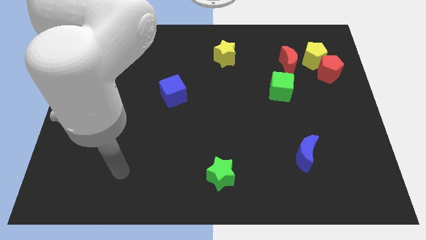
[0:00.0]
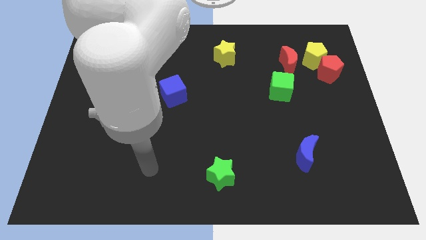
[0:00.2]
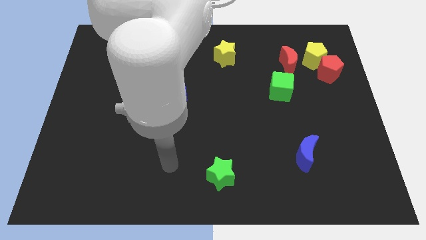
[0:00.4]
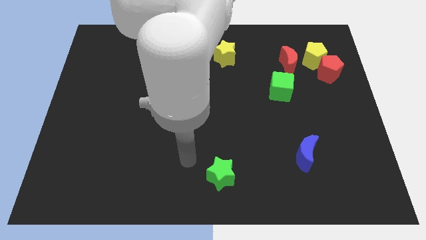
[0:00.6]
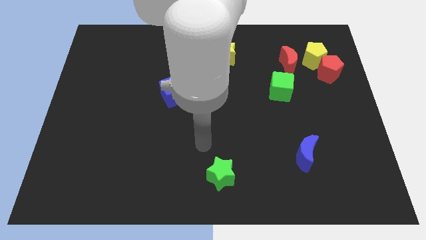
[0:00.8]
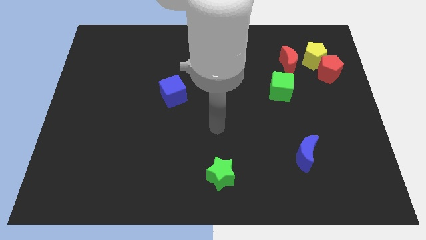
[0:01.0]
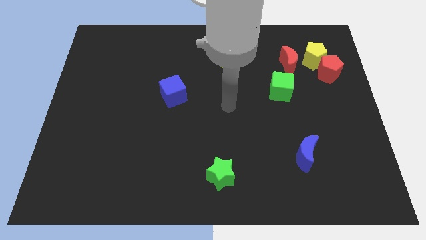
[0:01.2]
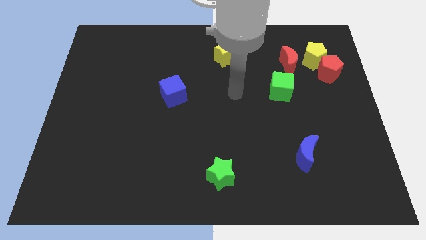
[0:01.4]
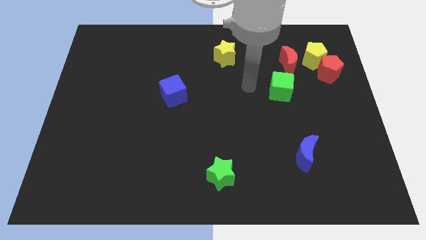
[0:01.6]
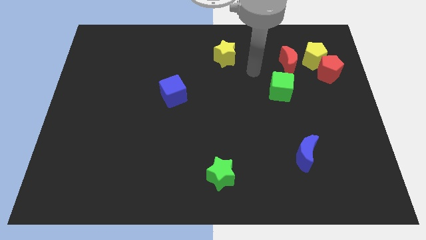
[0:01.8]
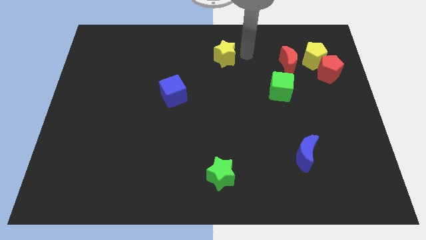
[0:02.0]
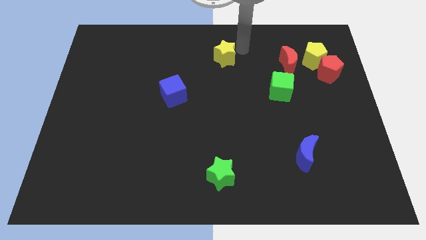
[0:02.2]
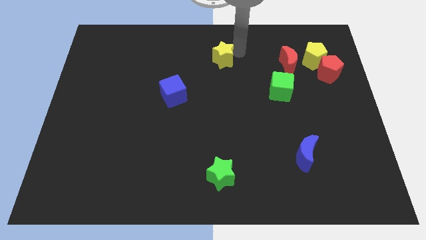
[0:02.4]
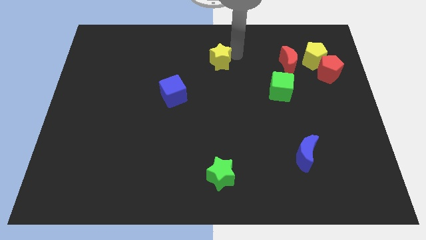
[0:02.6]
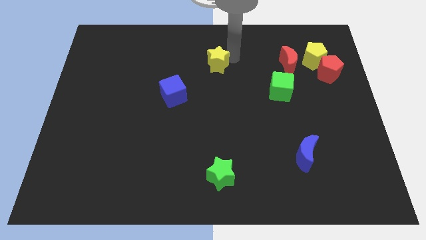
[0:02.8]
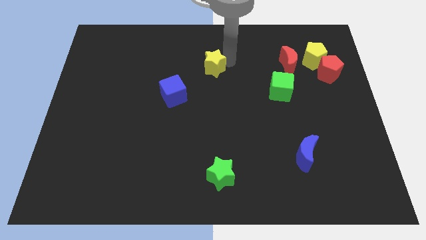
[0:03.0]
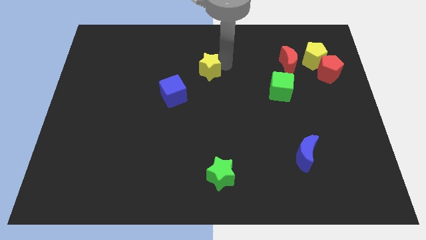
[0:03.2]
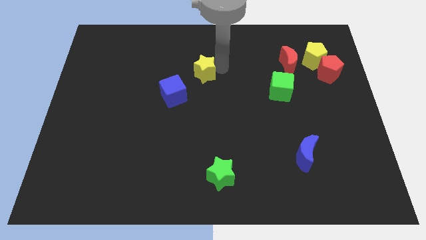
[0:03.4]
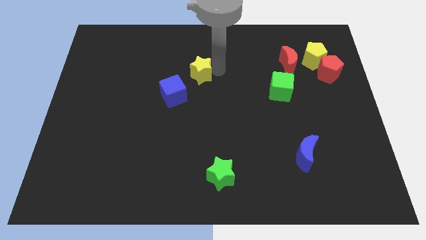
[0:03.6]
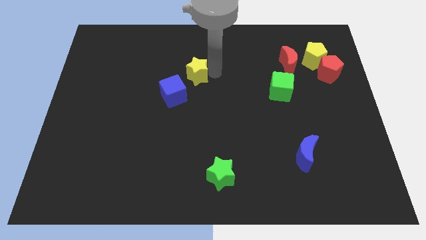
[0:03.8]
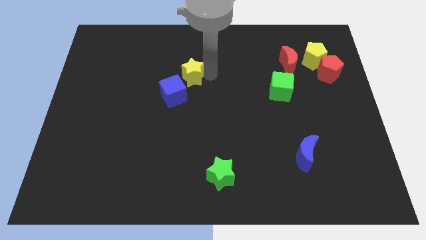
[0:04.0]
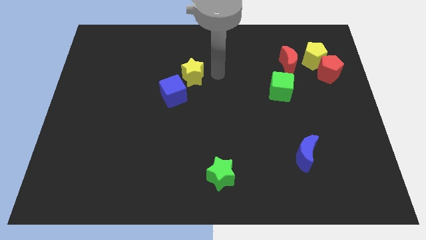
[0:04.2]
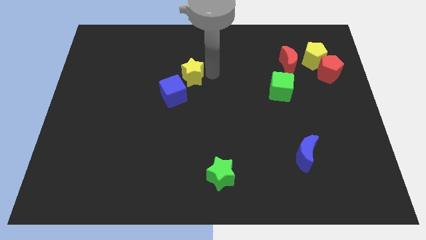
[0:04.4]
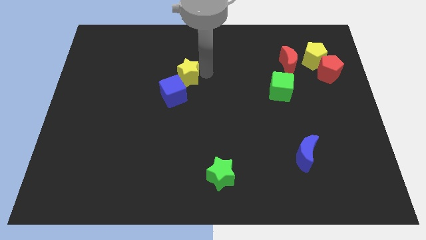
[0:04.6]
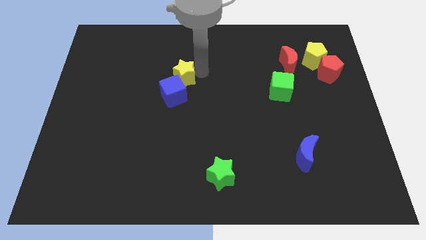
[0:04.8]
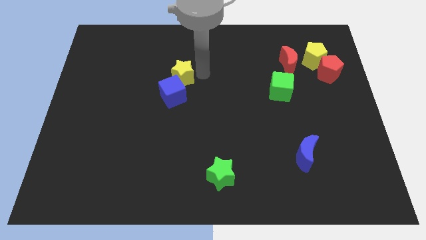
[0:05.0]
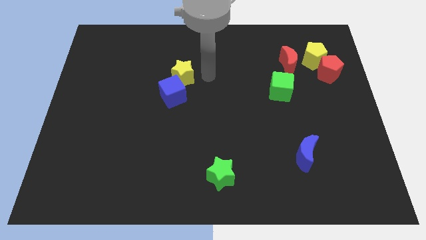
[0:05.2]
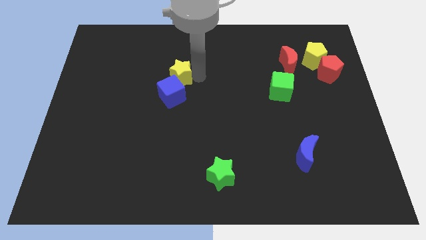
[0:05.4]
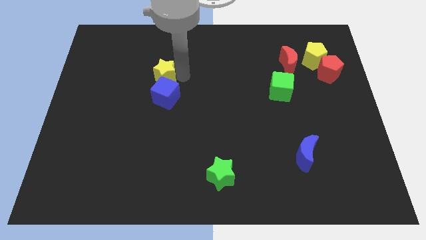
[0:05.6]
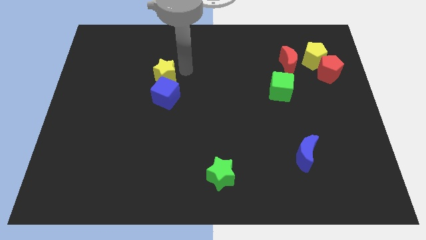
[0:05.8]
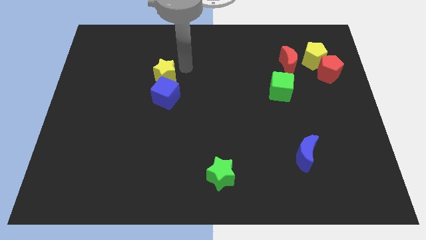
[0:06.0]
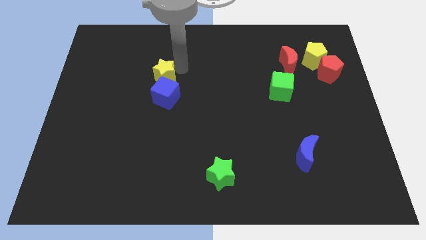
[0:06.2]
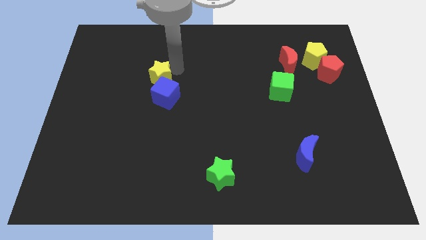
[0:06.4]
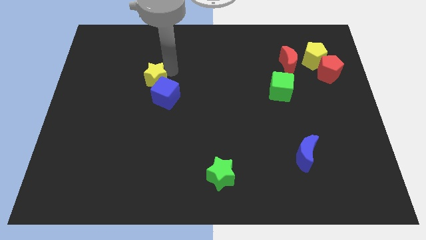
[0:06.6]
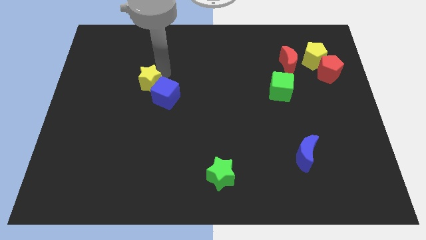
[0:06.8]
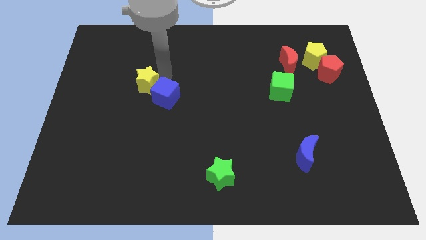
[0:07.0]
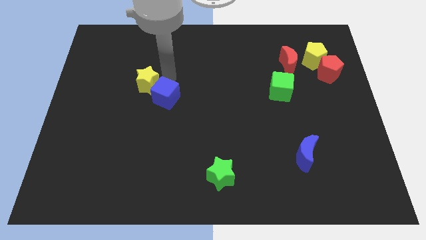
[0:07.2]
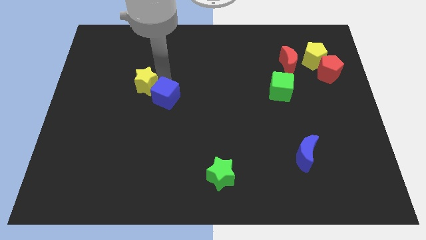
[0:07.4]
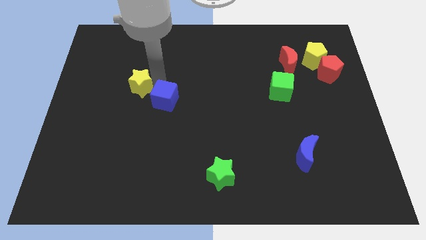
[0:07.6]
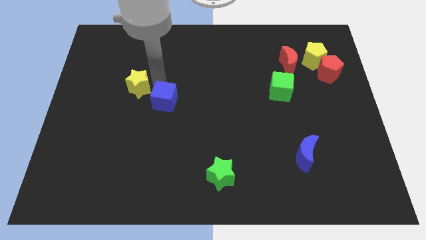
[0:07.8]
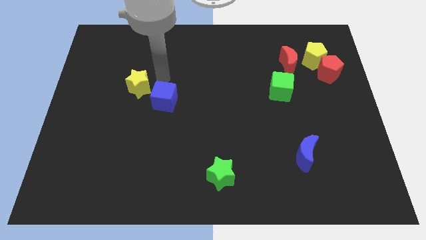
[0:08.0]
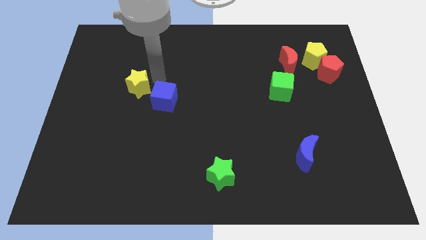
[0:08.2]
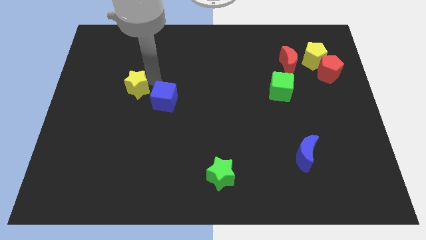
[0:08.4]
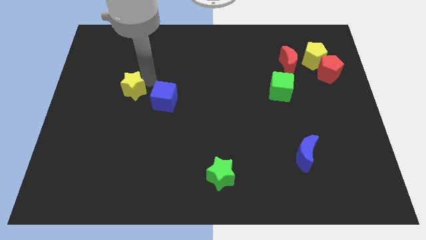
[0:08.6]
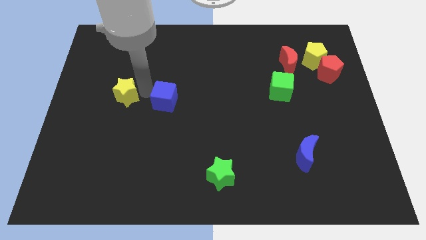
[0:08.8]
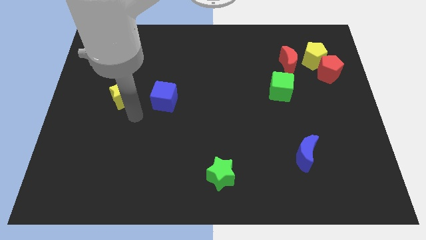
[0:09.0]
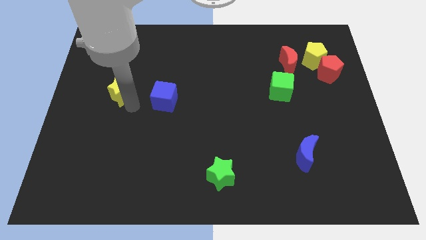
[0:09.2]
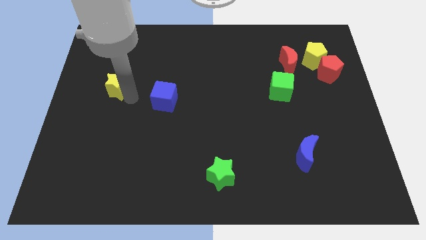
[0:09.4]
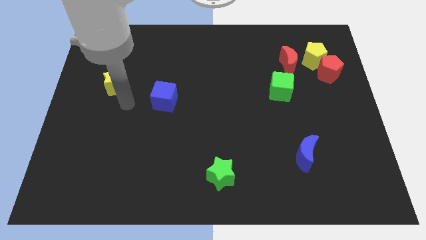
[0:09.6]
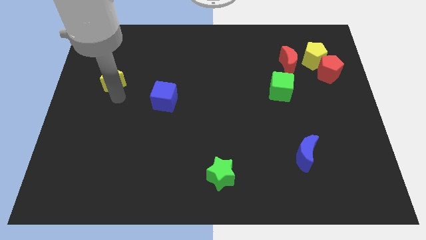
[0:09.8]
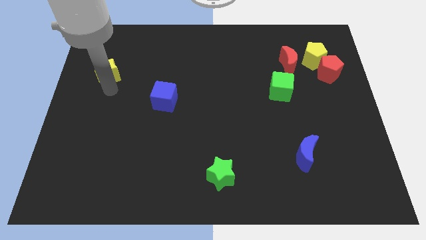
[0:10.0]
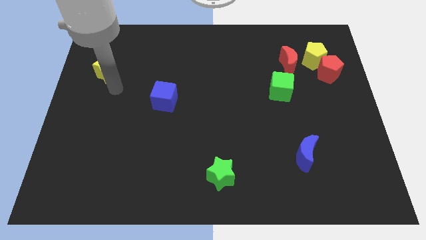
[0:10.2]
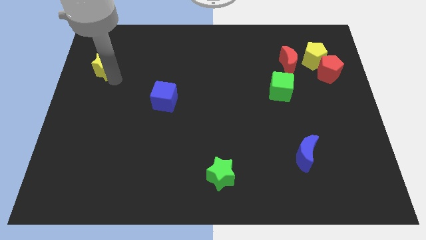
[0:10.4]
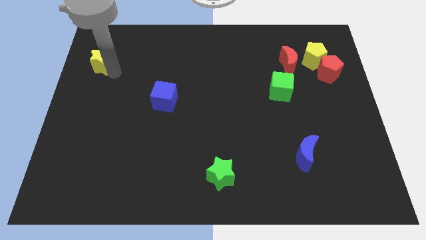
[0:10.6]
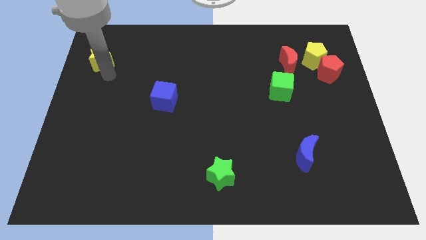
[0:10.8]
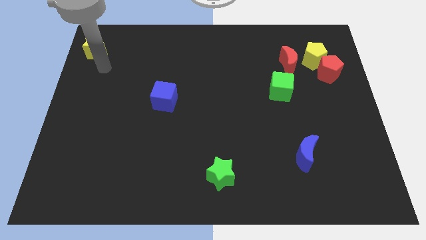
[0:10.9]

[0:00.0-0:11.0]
put the yellow star to the top left of the board

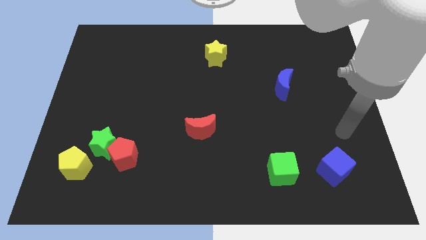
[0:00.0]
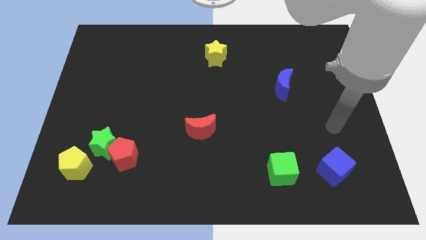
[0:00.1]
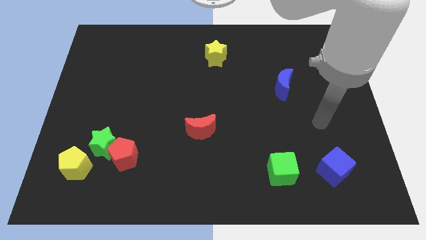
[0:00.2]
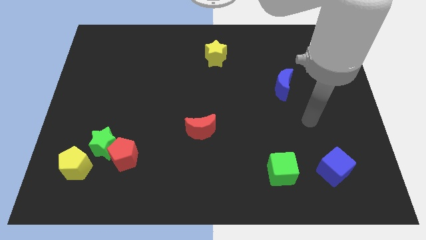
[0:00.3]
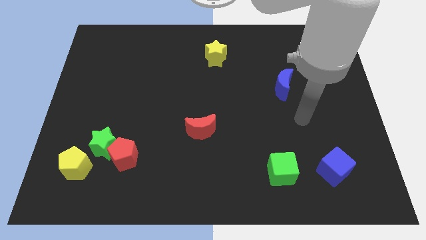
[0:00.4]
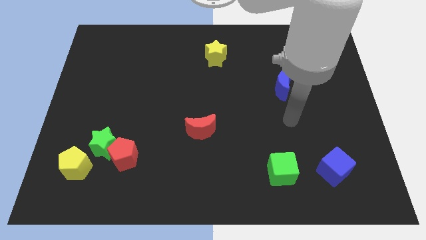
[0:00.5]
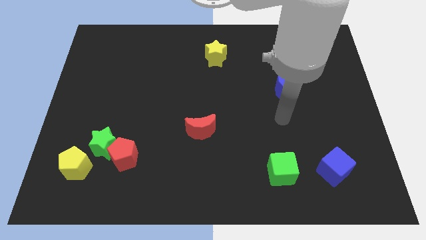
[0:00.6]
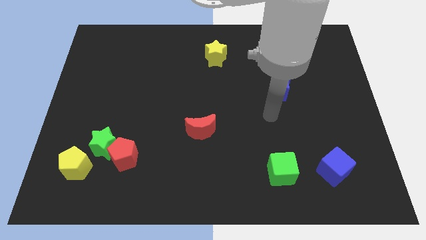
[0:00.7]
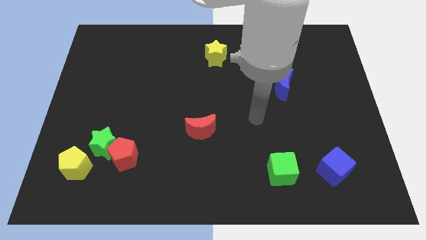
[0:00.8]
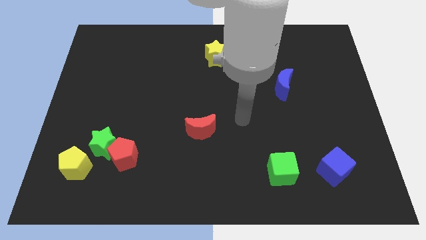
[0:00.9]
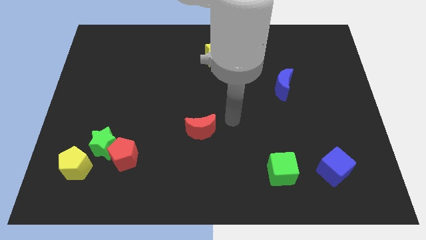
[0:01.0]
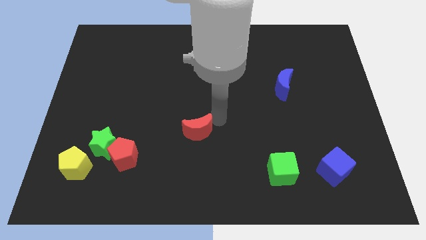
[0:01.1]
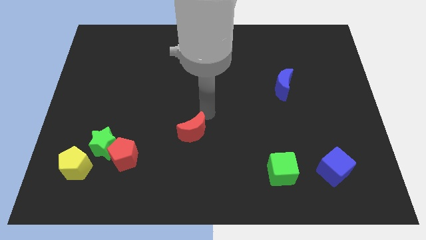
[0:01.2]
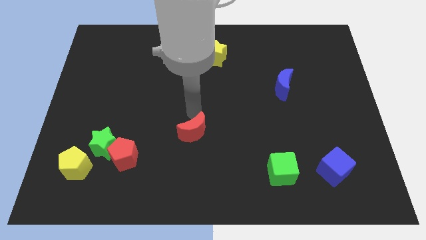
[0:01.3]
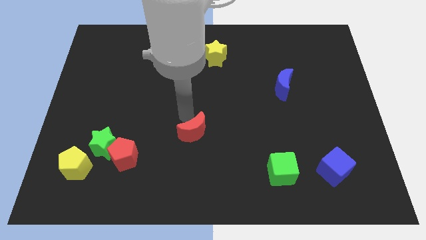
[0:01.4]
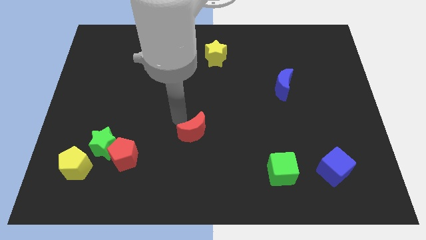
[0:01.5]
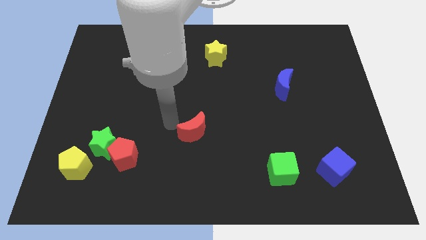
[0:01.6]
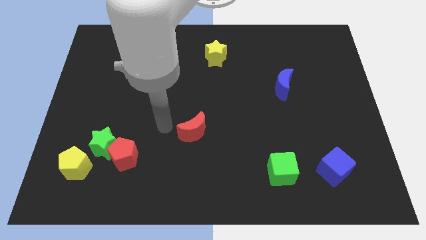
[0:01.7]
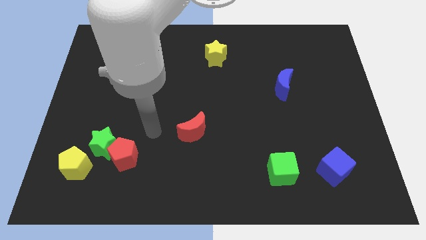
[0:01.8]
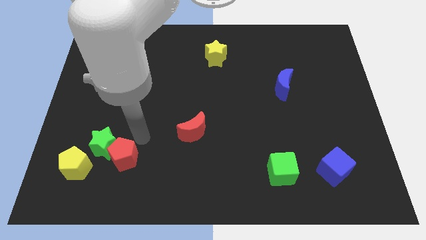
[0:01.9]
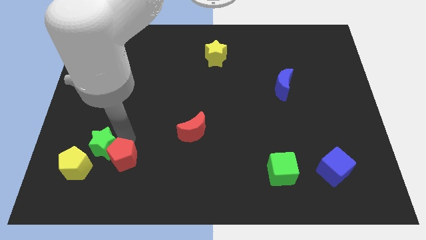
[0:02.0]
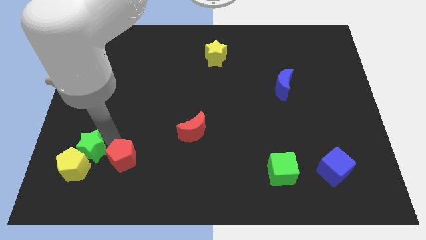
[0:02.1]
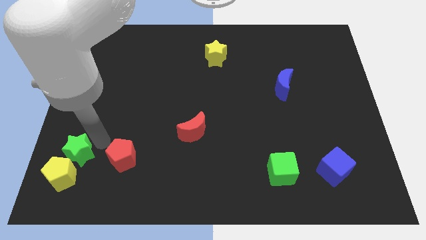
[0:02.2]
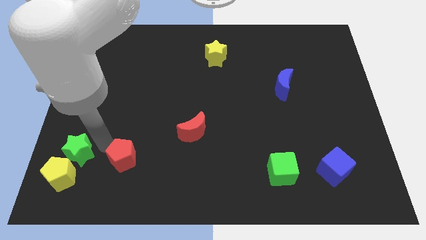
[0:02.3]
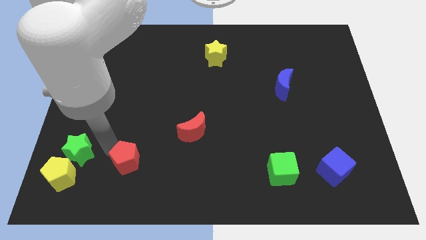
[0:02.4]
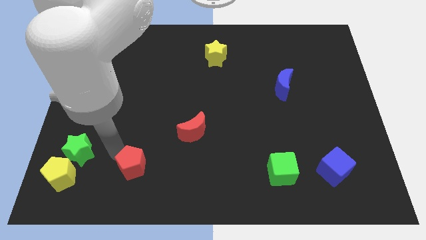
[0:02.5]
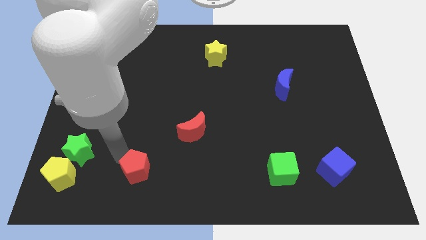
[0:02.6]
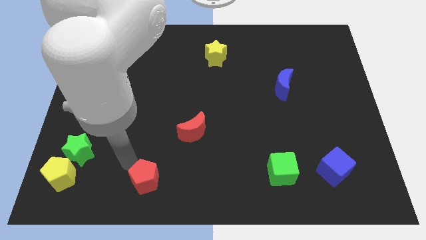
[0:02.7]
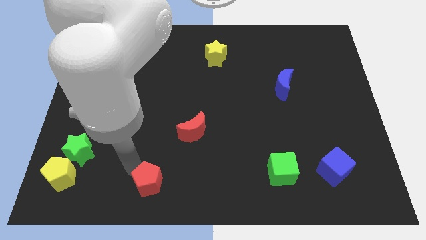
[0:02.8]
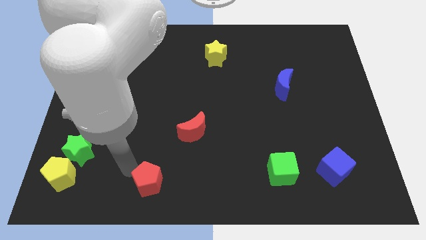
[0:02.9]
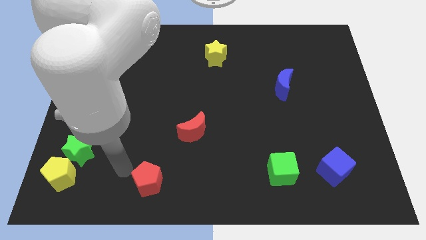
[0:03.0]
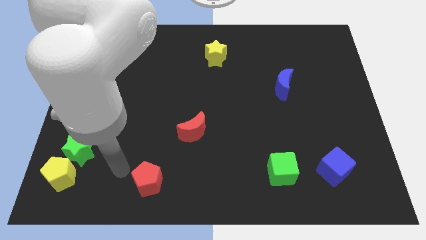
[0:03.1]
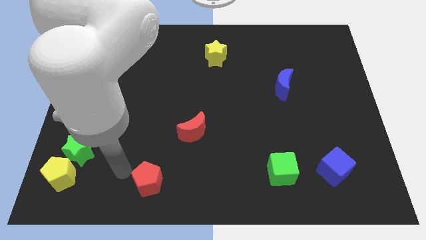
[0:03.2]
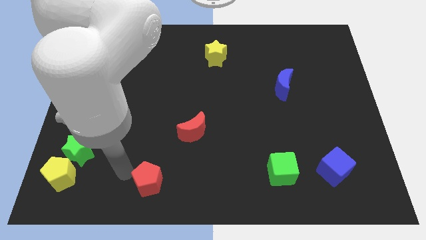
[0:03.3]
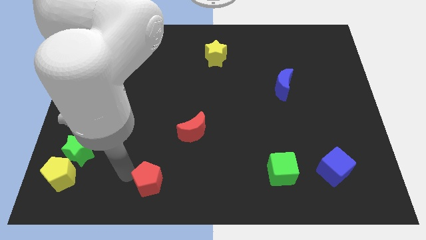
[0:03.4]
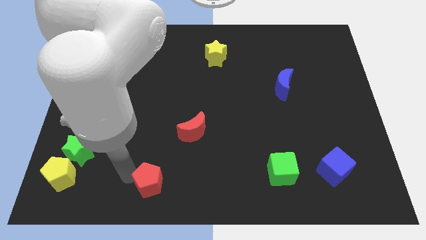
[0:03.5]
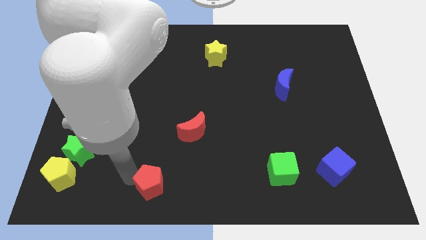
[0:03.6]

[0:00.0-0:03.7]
push the red pentagon to the bottom
